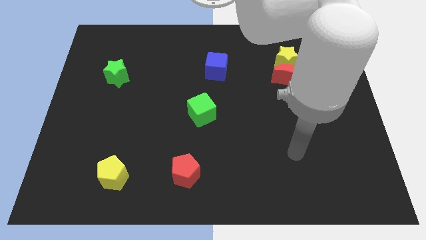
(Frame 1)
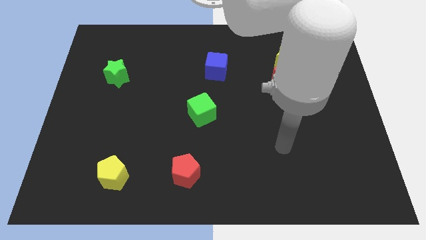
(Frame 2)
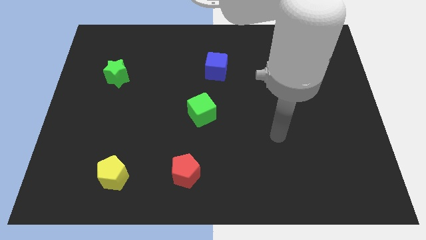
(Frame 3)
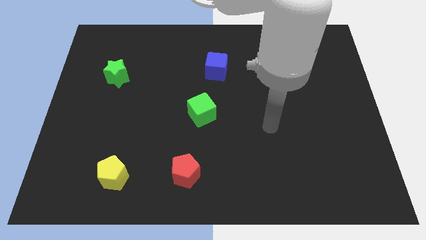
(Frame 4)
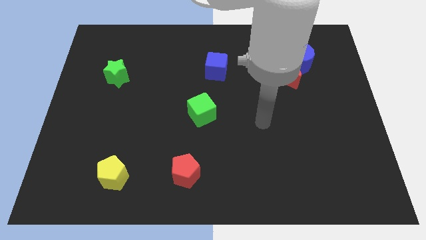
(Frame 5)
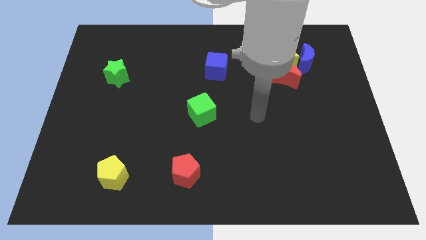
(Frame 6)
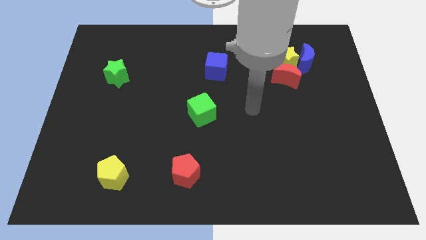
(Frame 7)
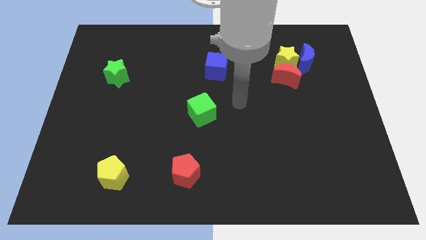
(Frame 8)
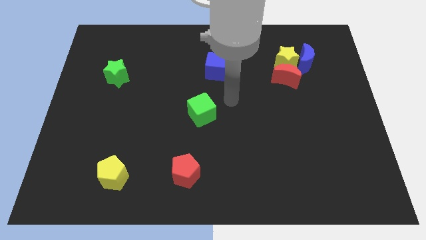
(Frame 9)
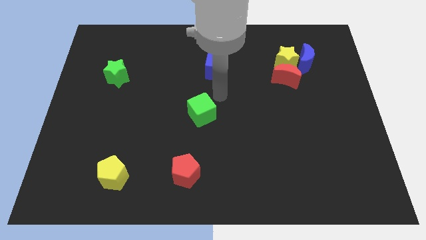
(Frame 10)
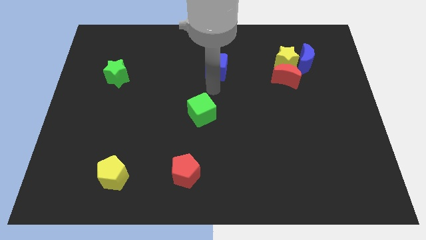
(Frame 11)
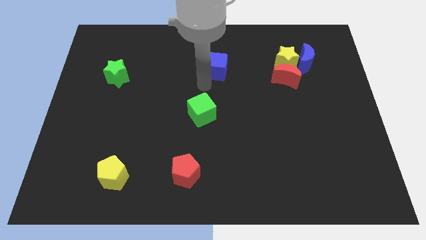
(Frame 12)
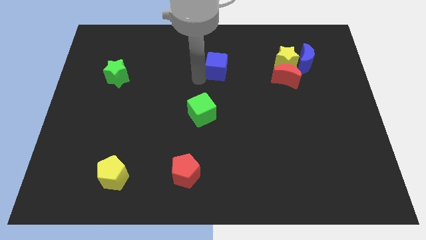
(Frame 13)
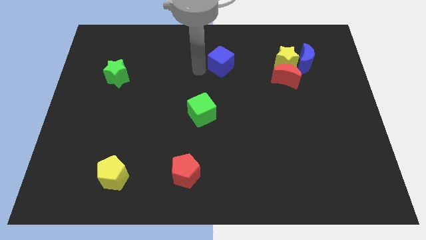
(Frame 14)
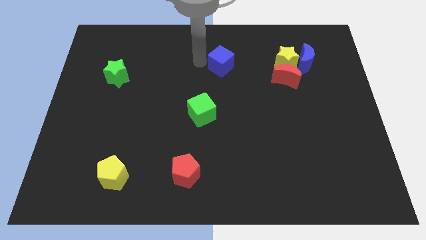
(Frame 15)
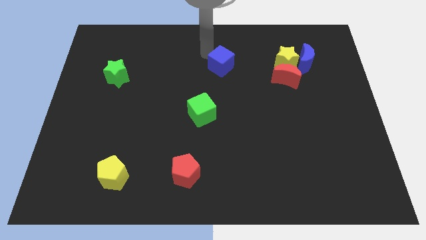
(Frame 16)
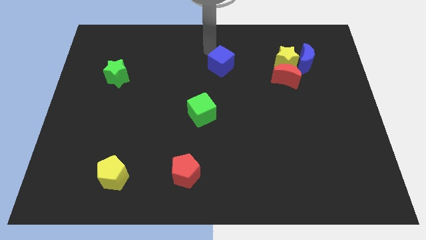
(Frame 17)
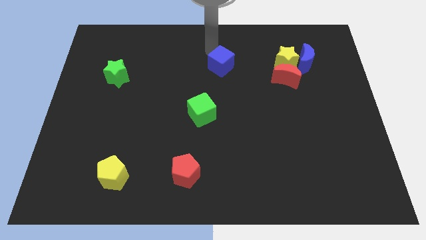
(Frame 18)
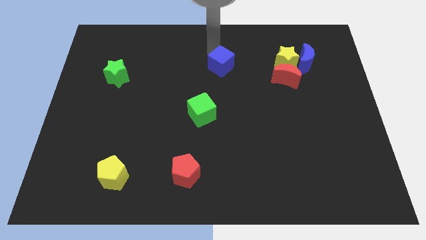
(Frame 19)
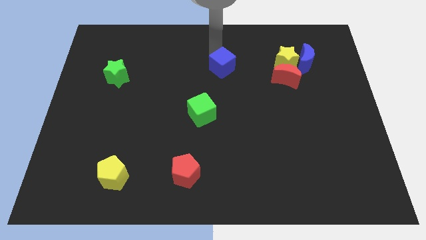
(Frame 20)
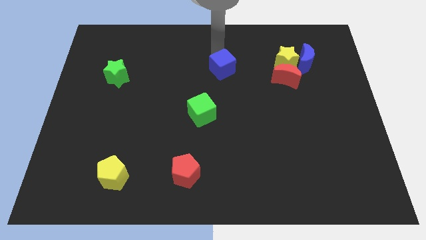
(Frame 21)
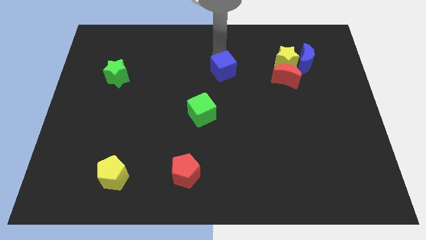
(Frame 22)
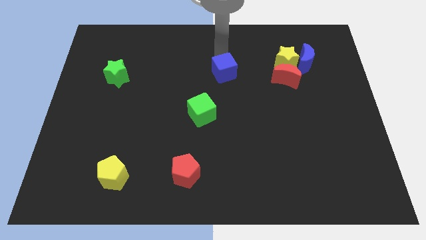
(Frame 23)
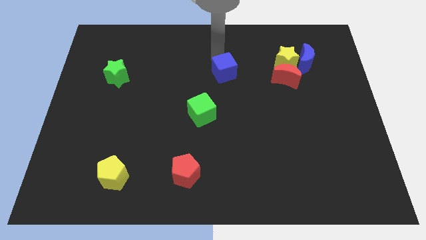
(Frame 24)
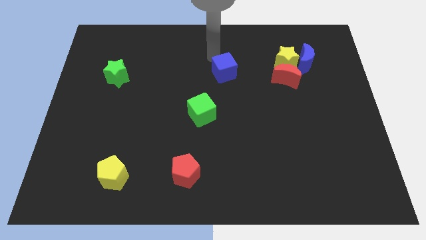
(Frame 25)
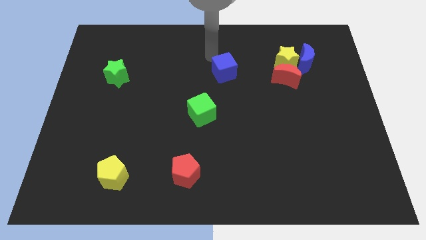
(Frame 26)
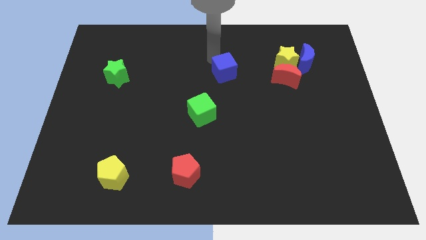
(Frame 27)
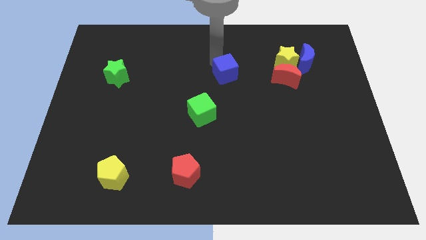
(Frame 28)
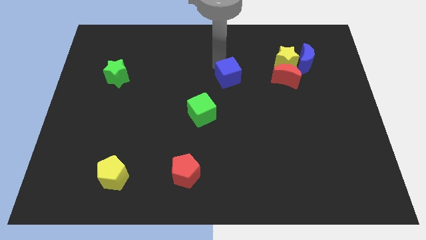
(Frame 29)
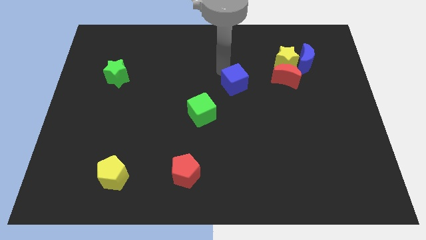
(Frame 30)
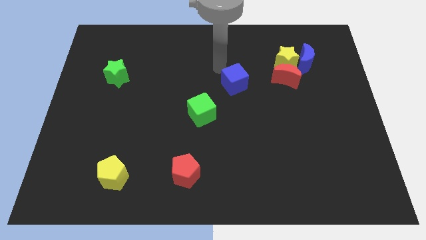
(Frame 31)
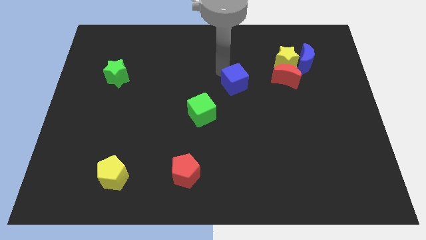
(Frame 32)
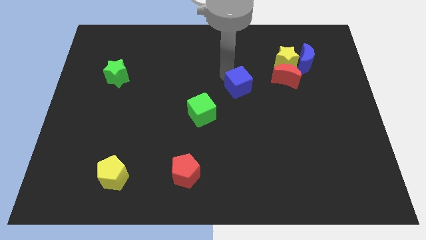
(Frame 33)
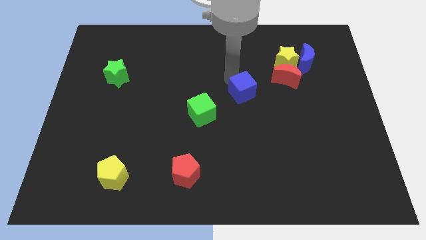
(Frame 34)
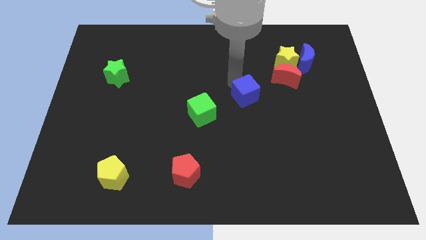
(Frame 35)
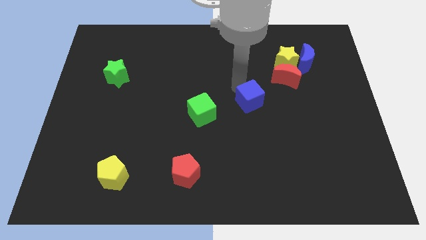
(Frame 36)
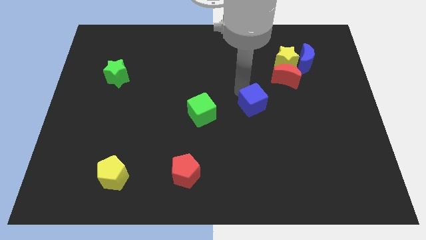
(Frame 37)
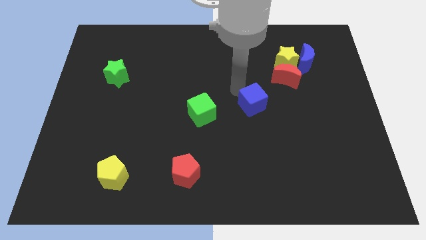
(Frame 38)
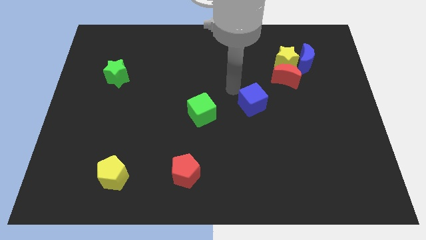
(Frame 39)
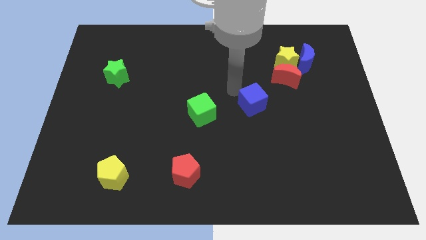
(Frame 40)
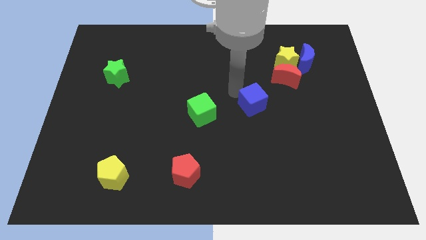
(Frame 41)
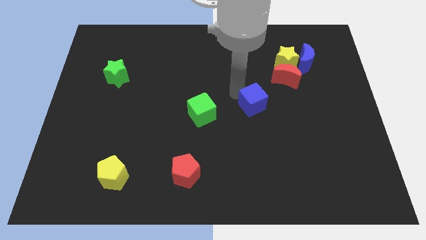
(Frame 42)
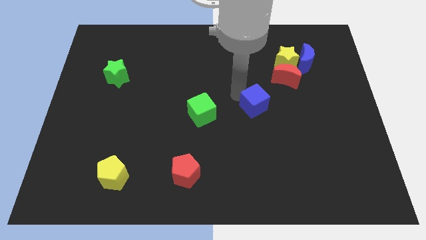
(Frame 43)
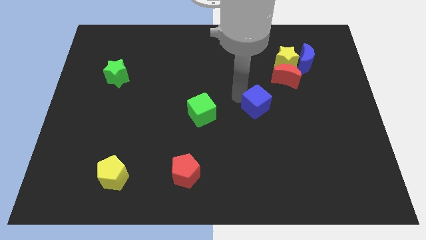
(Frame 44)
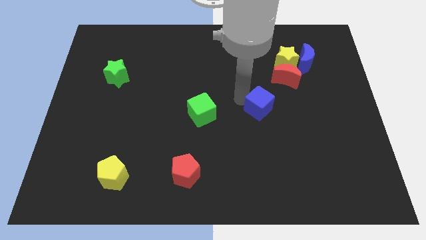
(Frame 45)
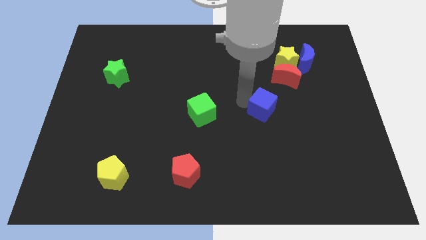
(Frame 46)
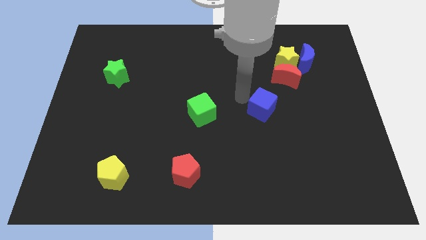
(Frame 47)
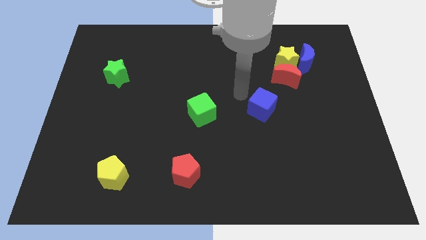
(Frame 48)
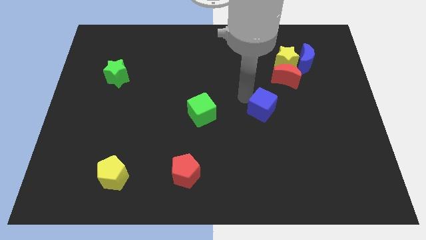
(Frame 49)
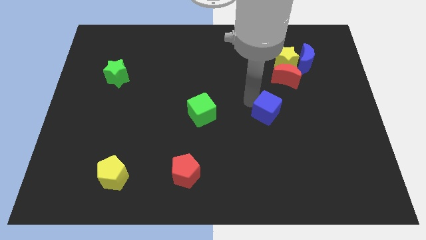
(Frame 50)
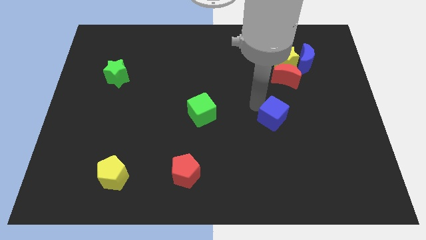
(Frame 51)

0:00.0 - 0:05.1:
move the blue cube downwards and right

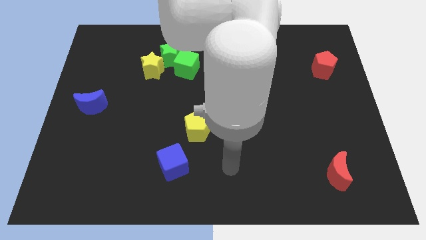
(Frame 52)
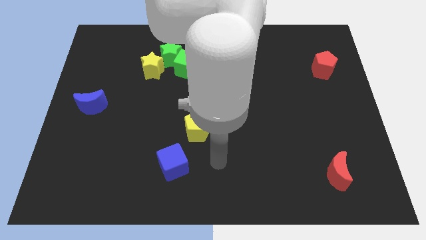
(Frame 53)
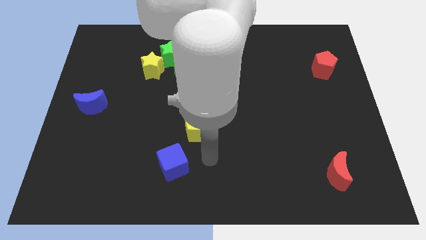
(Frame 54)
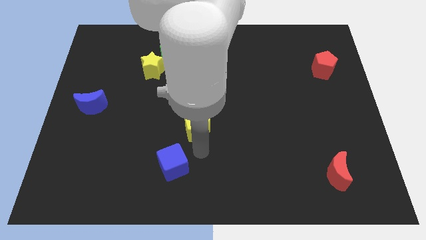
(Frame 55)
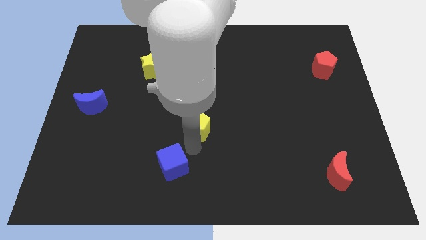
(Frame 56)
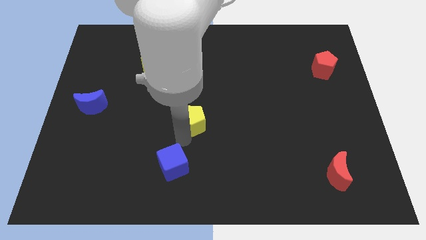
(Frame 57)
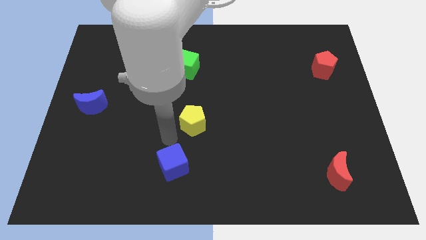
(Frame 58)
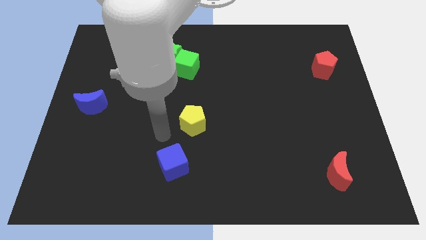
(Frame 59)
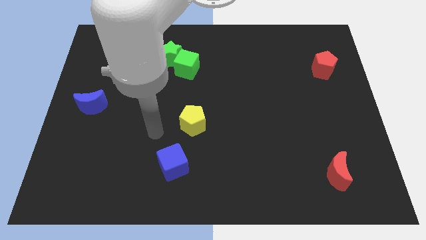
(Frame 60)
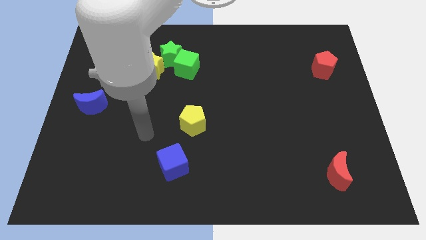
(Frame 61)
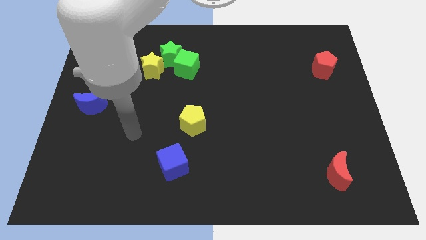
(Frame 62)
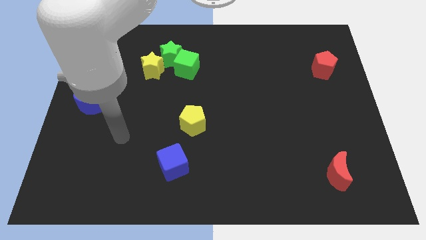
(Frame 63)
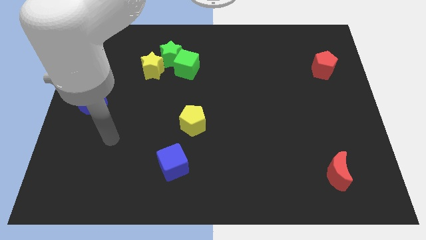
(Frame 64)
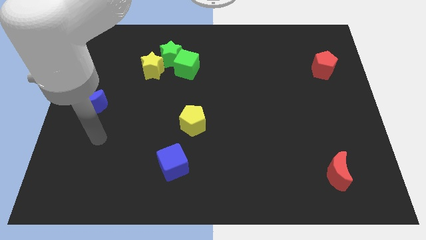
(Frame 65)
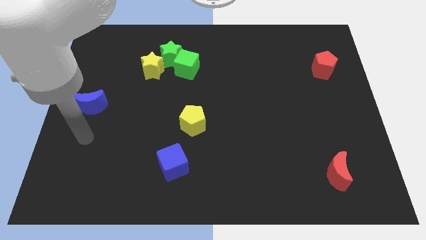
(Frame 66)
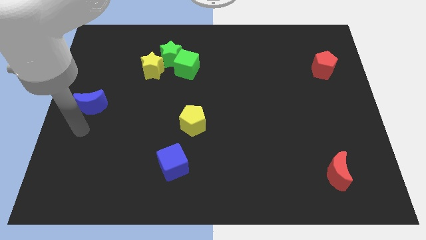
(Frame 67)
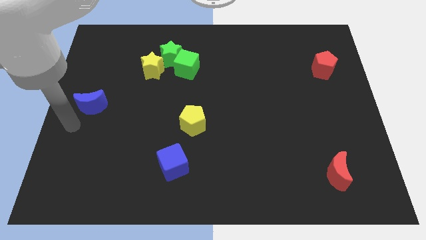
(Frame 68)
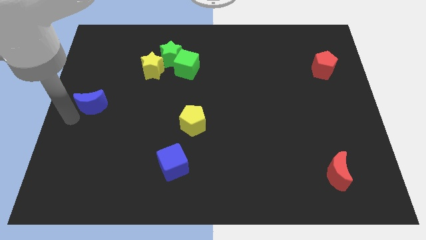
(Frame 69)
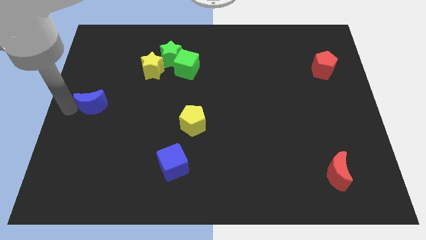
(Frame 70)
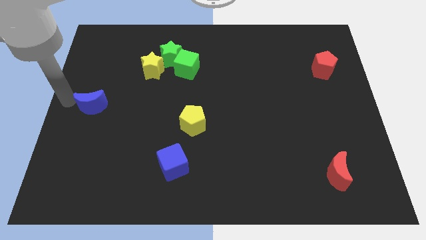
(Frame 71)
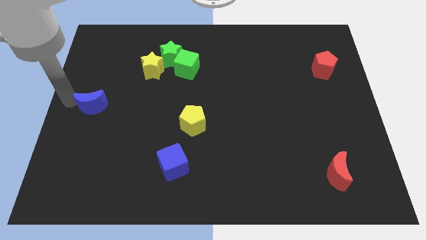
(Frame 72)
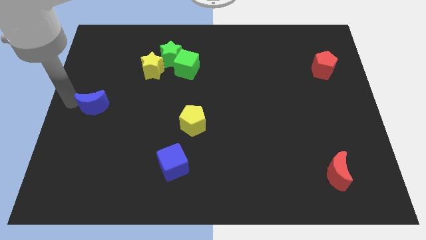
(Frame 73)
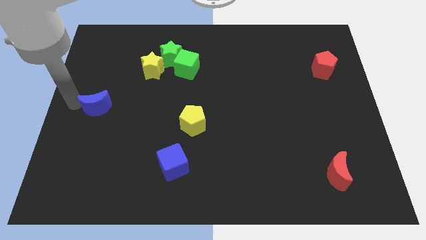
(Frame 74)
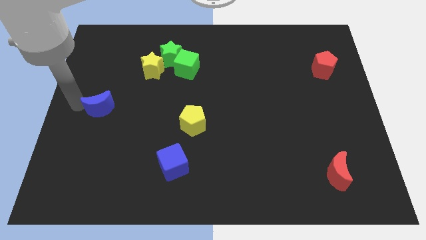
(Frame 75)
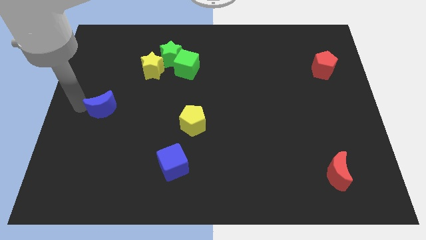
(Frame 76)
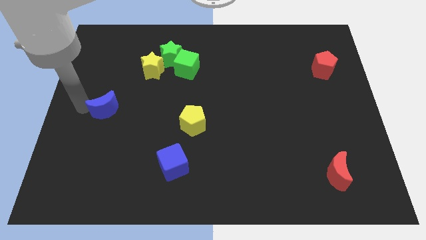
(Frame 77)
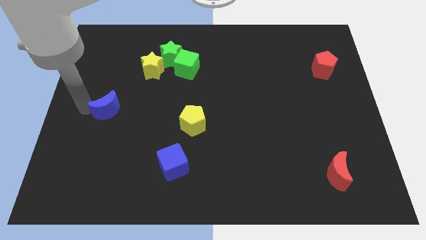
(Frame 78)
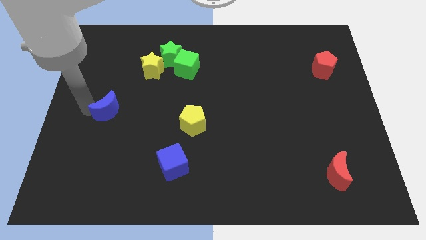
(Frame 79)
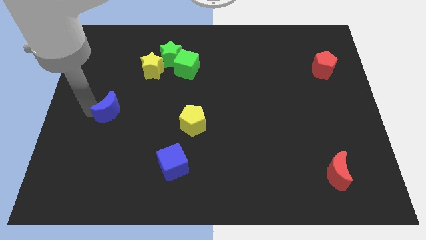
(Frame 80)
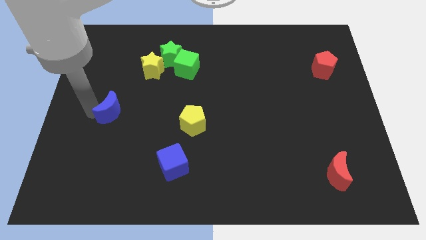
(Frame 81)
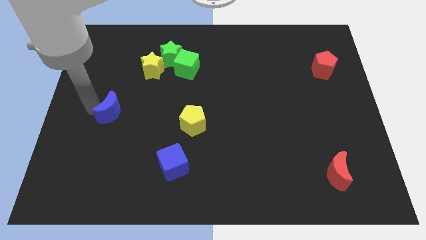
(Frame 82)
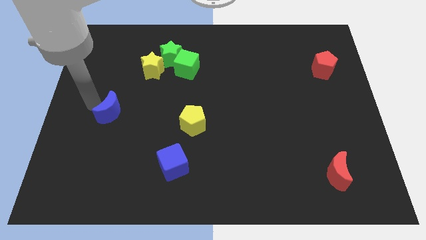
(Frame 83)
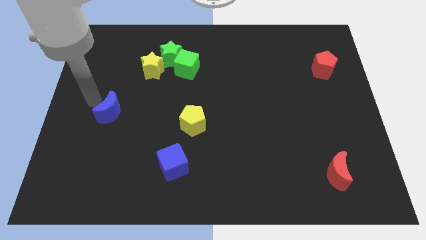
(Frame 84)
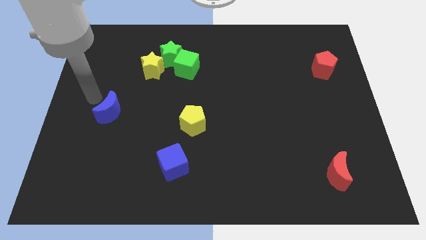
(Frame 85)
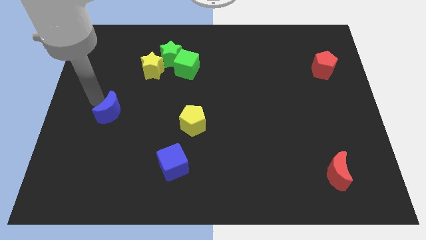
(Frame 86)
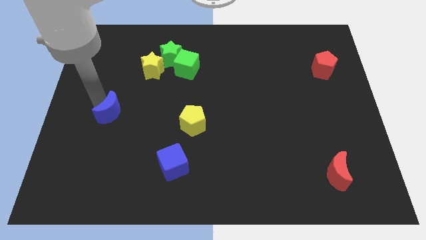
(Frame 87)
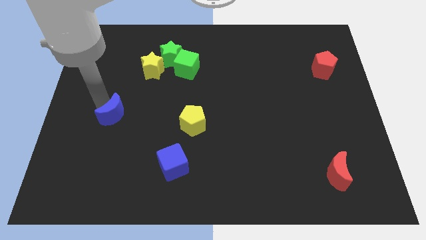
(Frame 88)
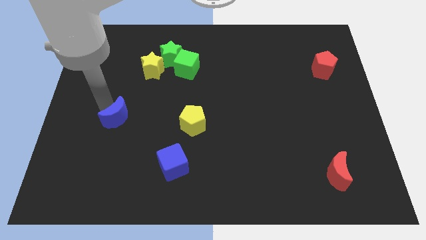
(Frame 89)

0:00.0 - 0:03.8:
slide the blue moon diagonally downwards and right a little
